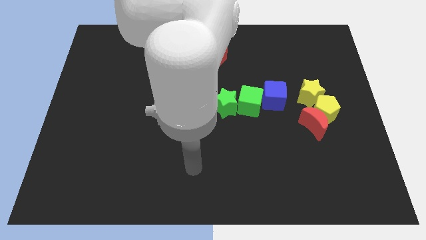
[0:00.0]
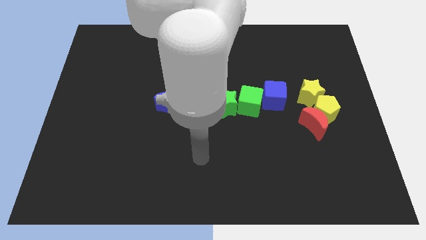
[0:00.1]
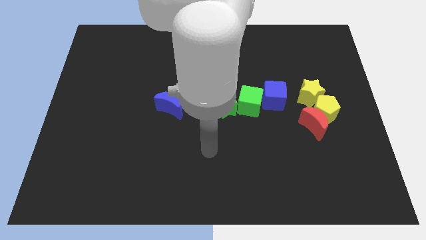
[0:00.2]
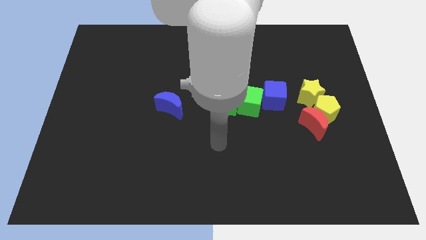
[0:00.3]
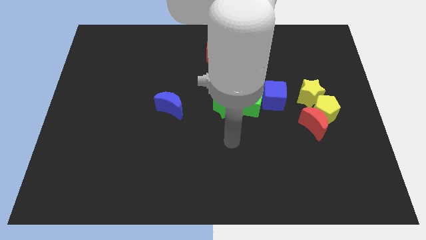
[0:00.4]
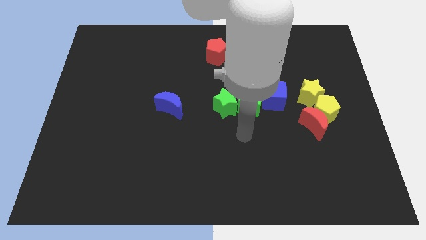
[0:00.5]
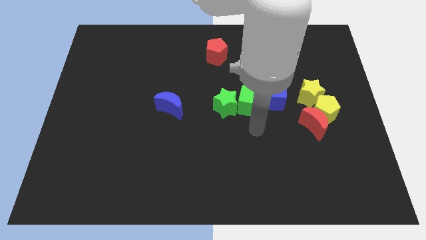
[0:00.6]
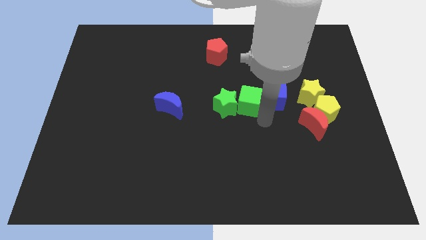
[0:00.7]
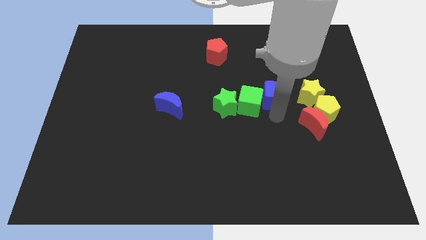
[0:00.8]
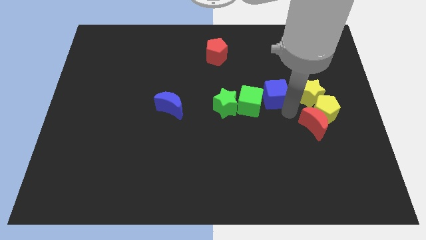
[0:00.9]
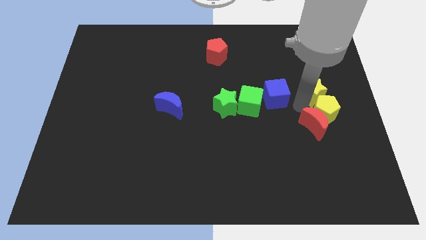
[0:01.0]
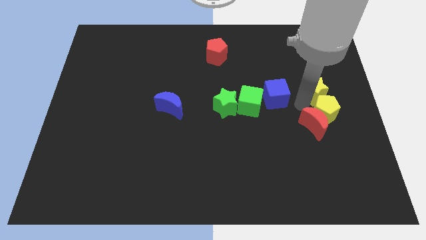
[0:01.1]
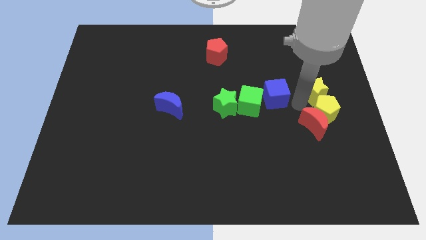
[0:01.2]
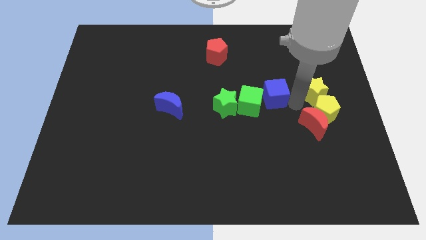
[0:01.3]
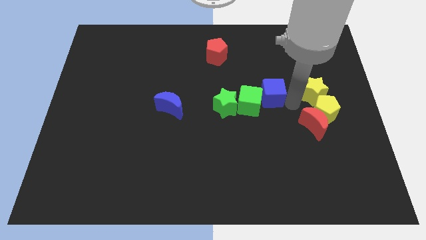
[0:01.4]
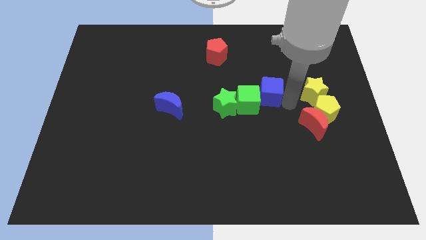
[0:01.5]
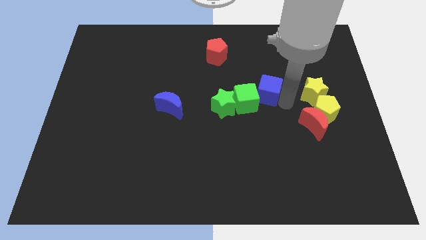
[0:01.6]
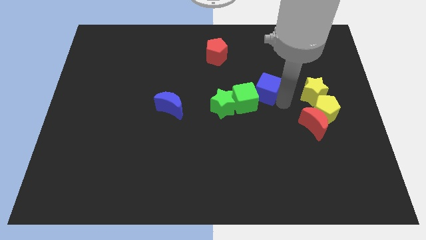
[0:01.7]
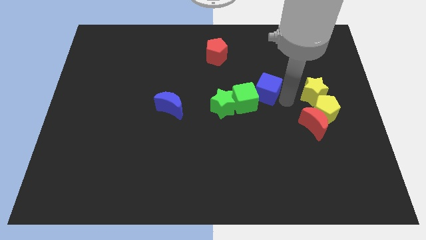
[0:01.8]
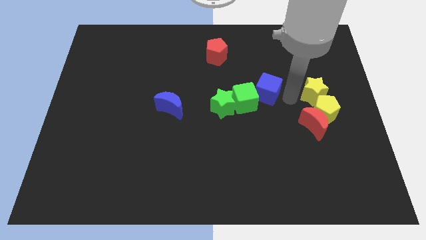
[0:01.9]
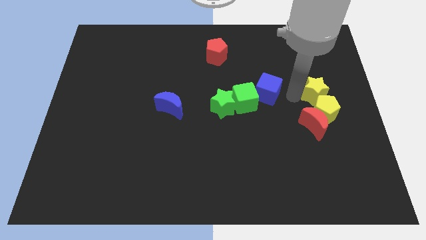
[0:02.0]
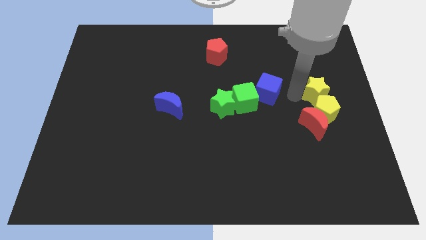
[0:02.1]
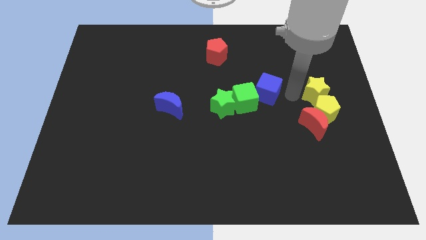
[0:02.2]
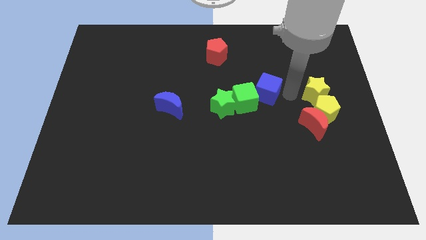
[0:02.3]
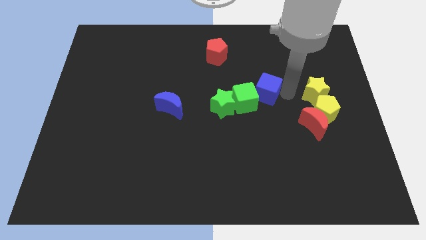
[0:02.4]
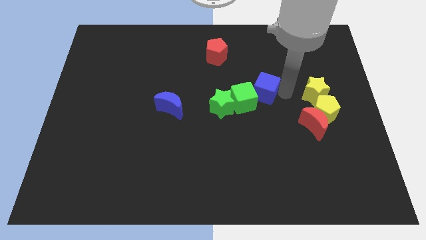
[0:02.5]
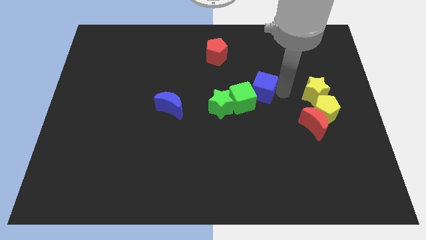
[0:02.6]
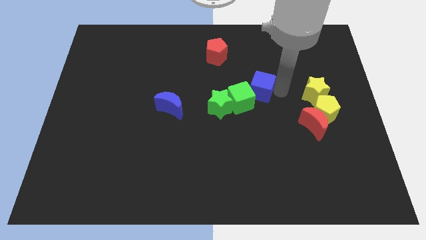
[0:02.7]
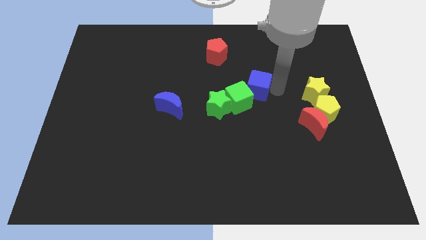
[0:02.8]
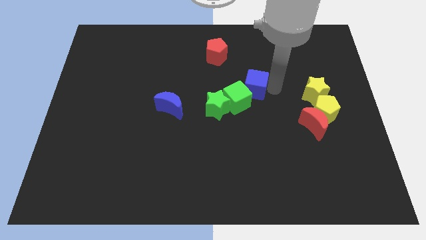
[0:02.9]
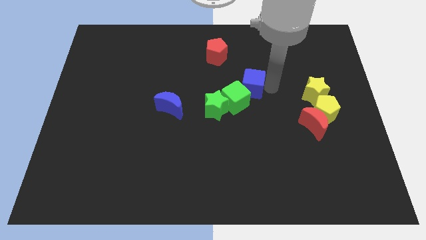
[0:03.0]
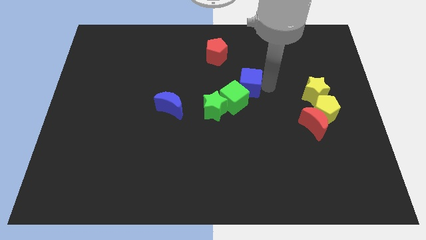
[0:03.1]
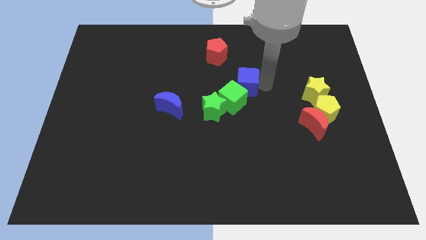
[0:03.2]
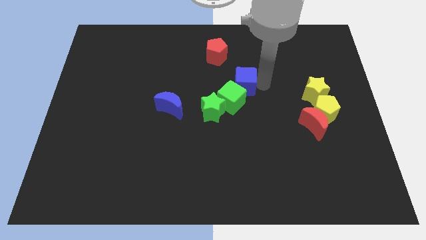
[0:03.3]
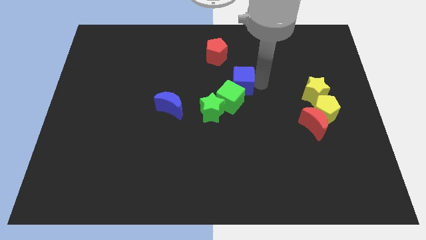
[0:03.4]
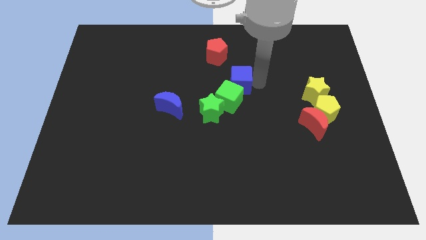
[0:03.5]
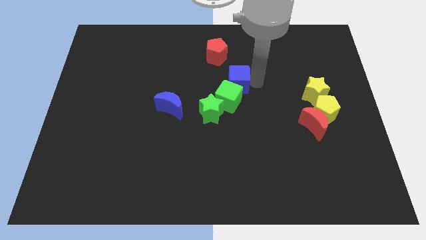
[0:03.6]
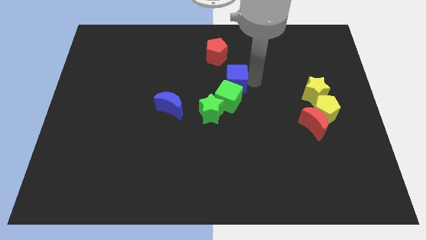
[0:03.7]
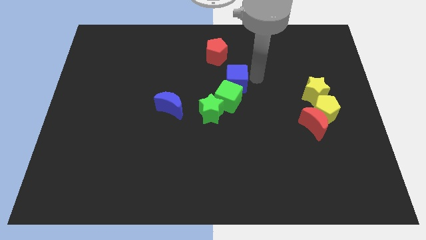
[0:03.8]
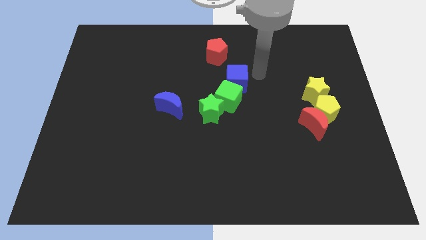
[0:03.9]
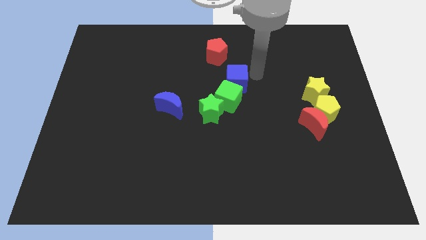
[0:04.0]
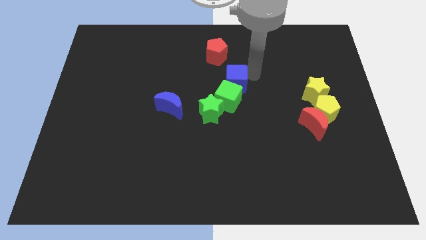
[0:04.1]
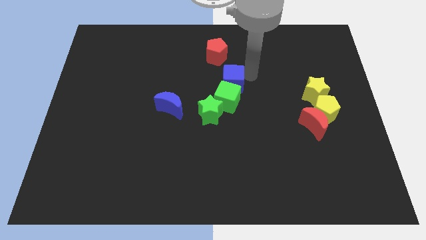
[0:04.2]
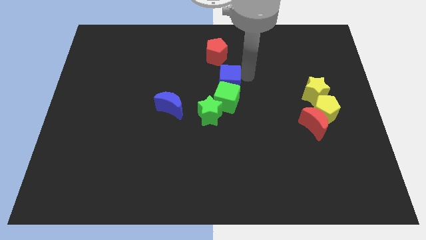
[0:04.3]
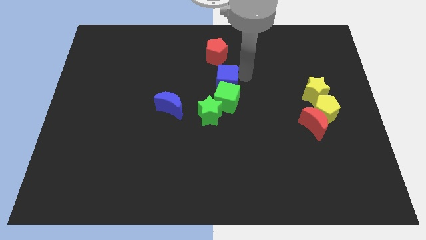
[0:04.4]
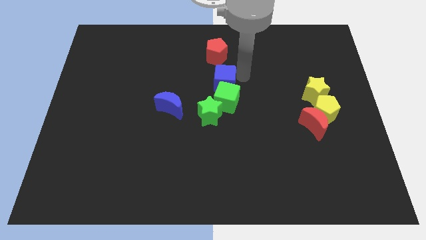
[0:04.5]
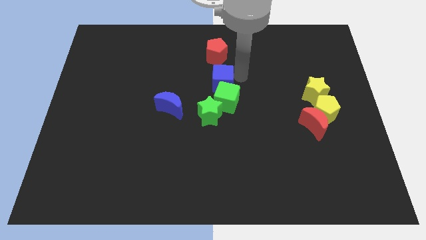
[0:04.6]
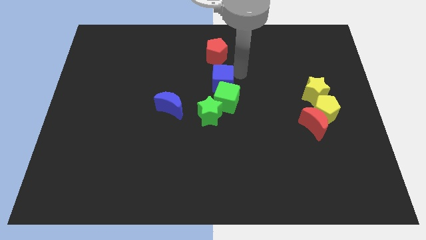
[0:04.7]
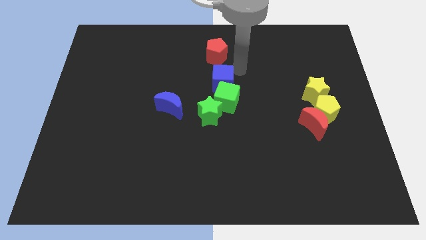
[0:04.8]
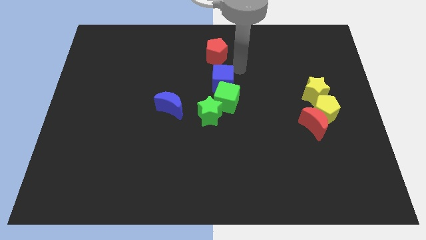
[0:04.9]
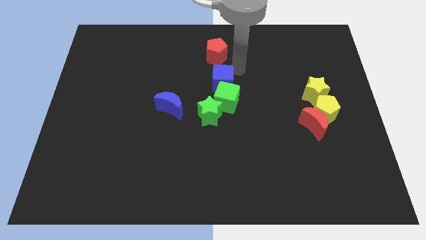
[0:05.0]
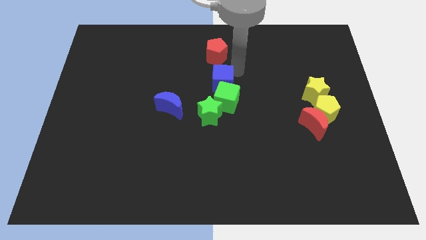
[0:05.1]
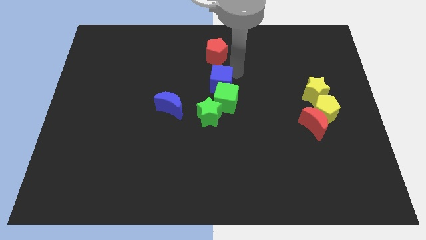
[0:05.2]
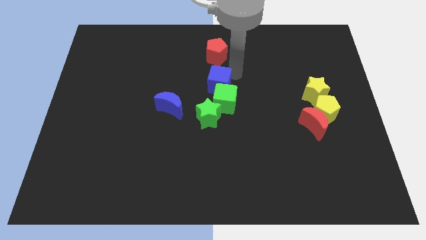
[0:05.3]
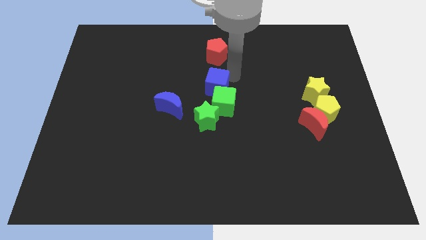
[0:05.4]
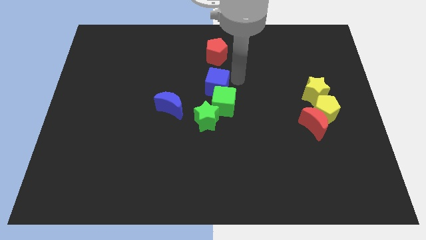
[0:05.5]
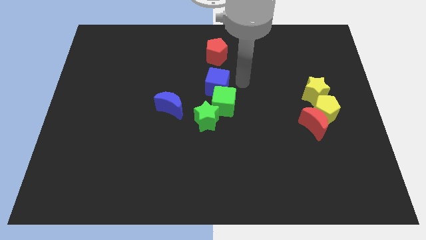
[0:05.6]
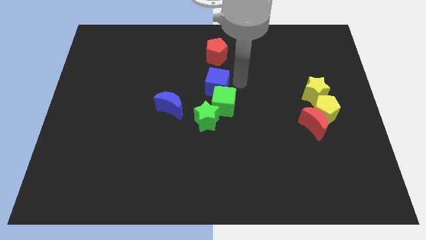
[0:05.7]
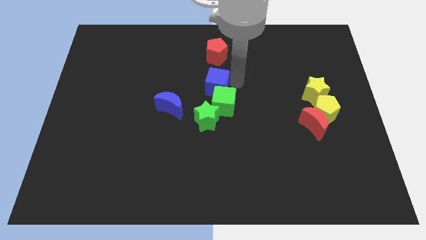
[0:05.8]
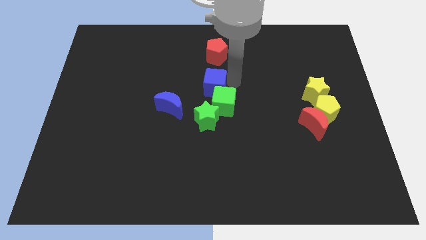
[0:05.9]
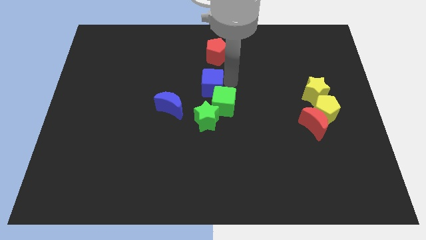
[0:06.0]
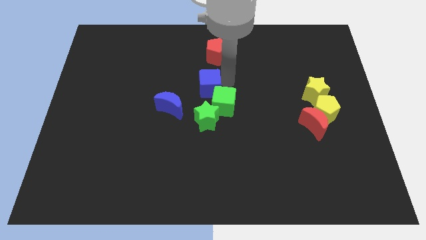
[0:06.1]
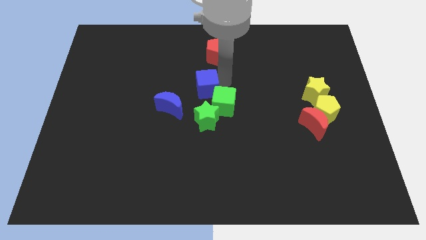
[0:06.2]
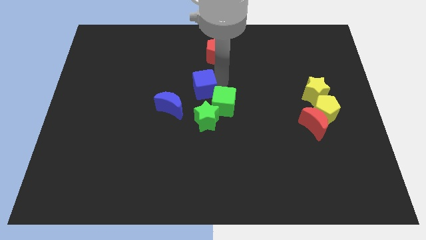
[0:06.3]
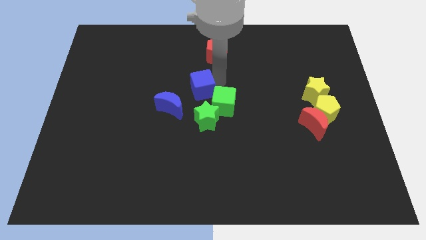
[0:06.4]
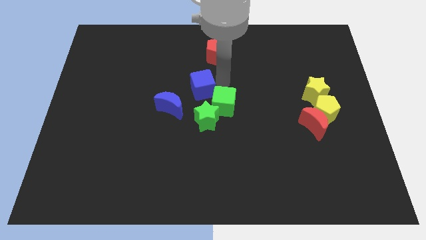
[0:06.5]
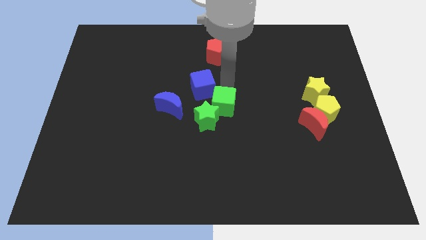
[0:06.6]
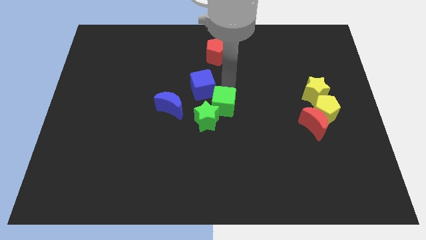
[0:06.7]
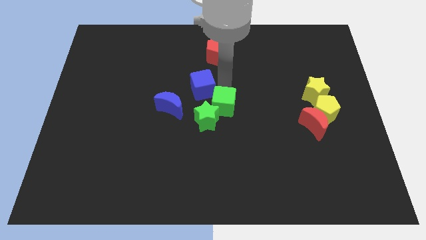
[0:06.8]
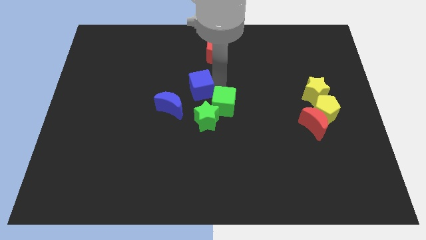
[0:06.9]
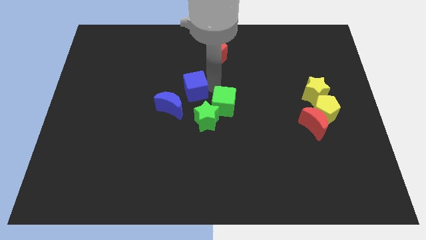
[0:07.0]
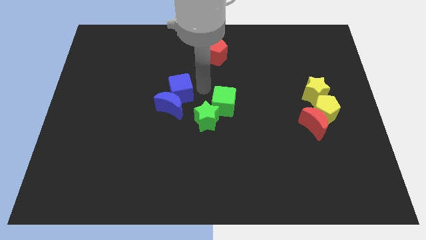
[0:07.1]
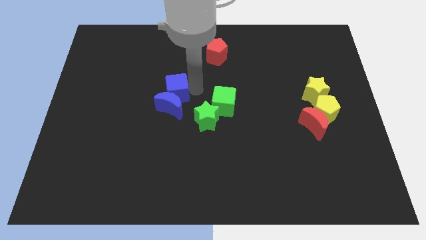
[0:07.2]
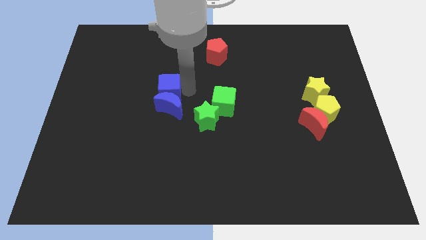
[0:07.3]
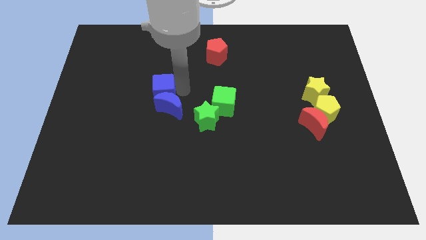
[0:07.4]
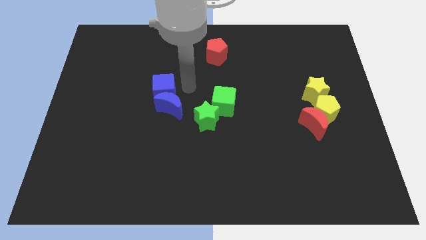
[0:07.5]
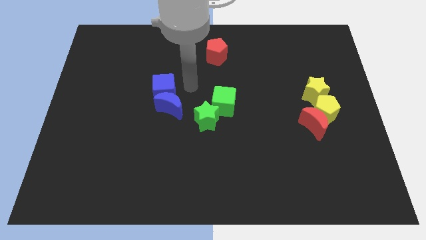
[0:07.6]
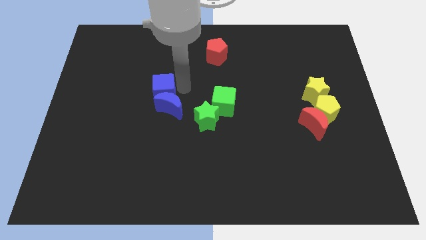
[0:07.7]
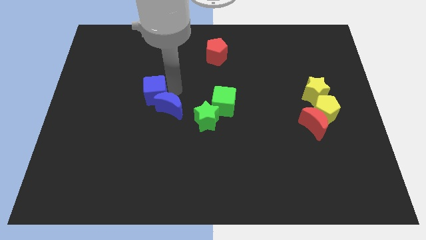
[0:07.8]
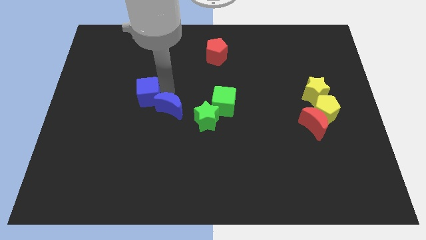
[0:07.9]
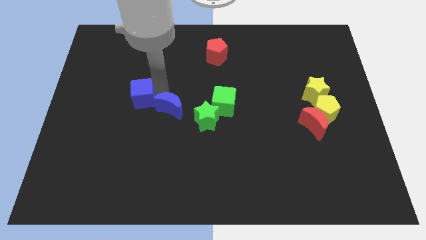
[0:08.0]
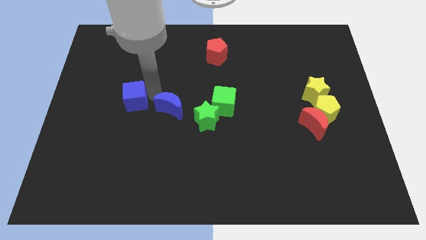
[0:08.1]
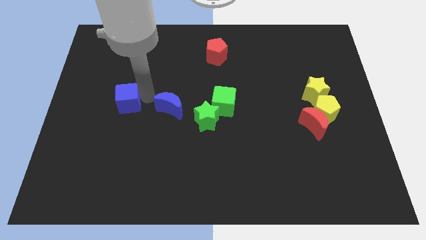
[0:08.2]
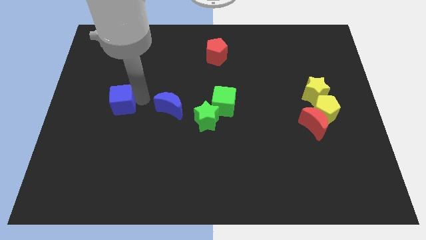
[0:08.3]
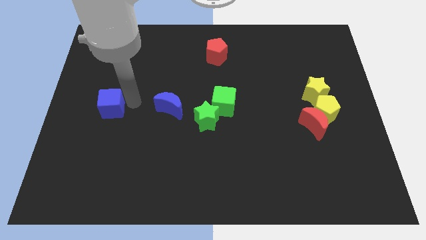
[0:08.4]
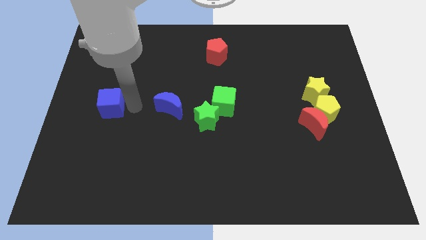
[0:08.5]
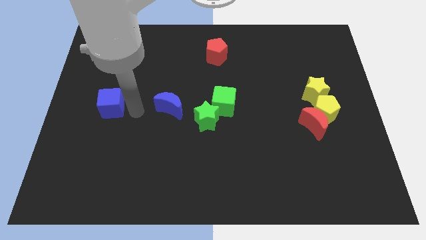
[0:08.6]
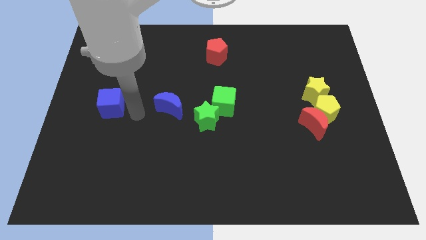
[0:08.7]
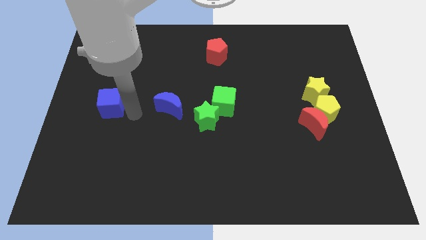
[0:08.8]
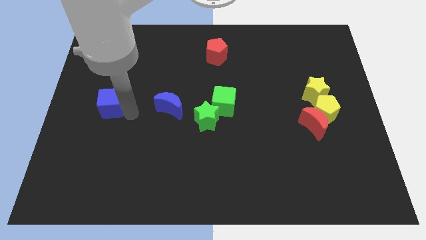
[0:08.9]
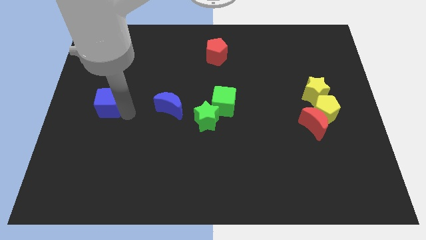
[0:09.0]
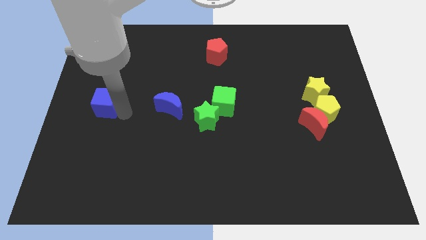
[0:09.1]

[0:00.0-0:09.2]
move the blue cube to the left side of the board
